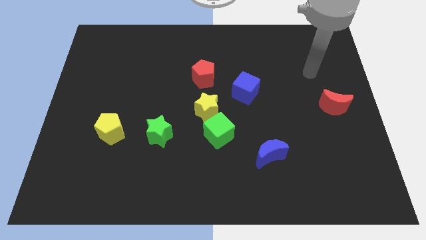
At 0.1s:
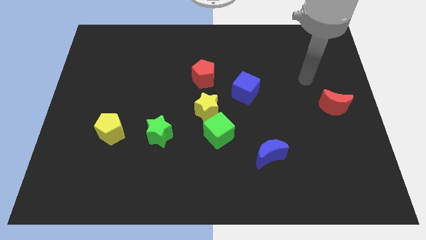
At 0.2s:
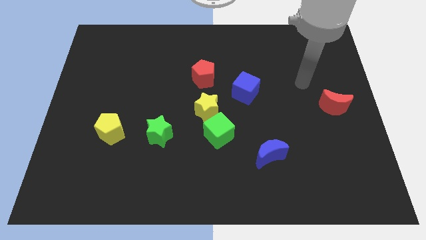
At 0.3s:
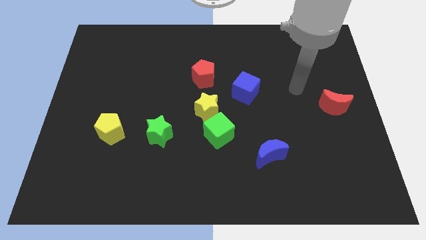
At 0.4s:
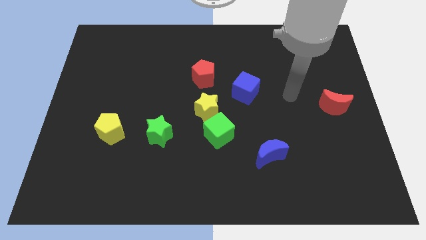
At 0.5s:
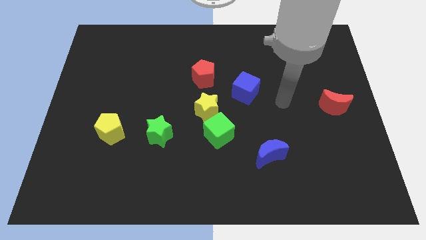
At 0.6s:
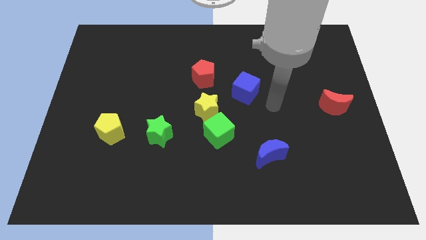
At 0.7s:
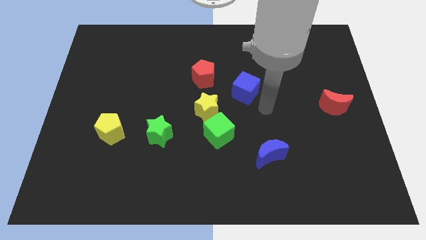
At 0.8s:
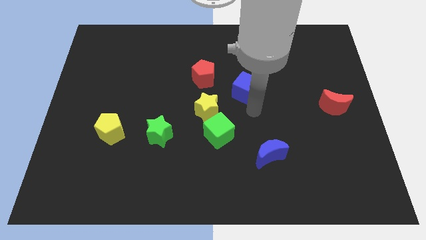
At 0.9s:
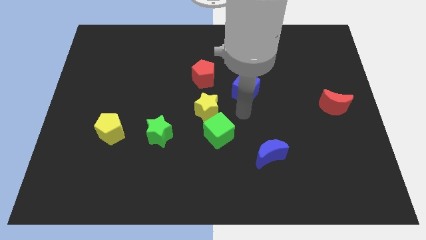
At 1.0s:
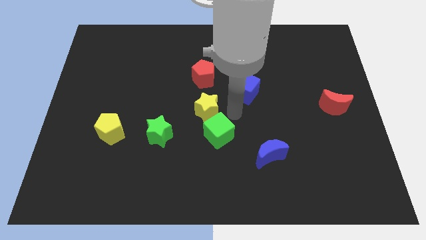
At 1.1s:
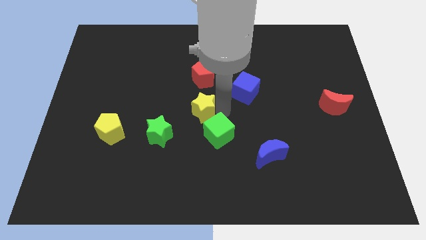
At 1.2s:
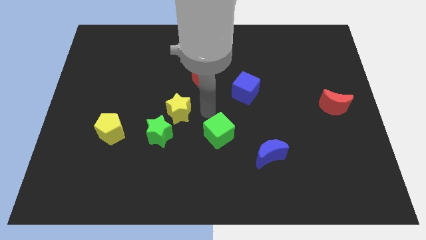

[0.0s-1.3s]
separate the green cube from the yellow star

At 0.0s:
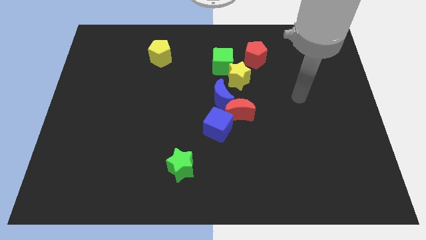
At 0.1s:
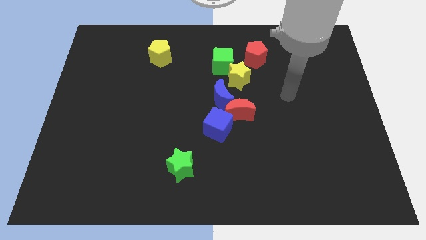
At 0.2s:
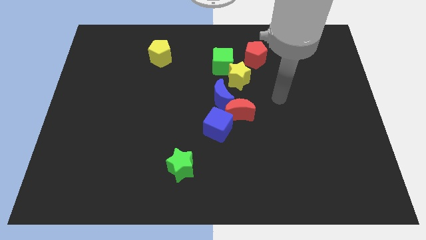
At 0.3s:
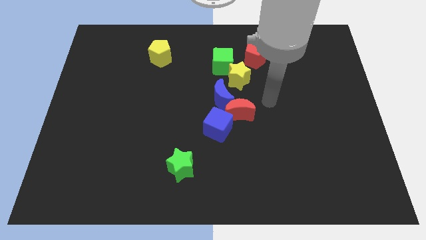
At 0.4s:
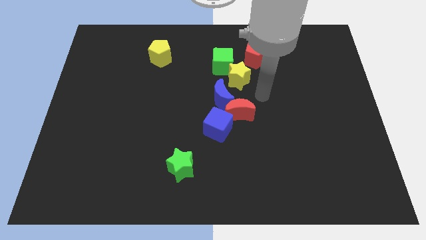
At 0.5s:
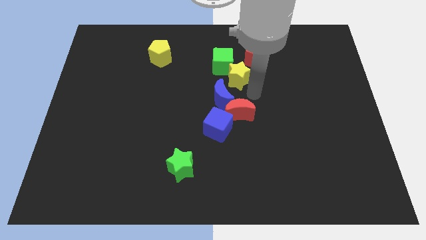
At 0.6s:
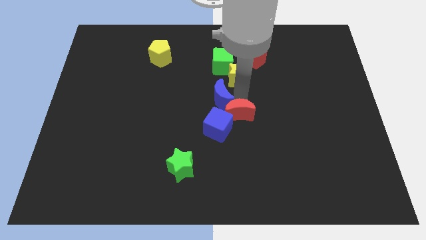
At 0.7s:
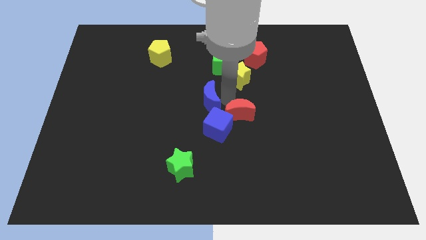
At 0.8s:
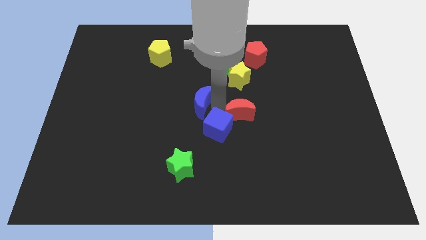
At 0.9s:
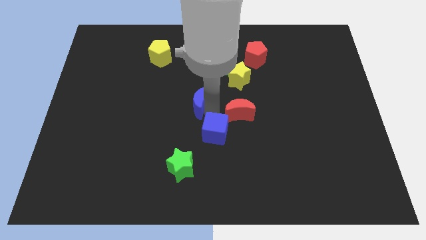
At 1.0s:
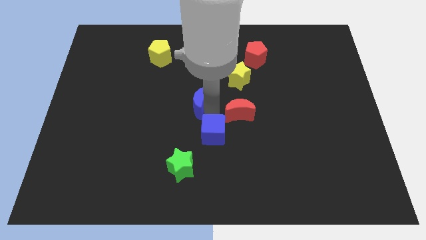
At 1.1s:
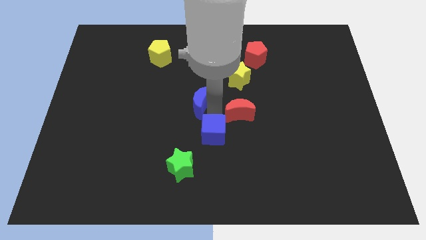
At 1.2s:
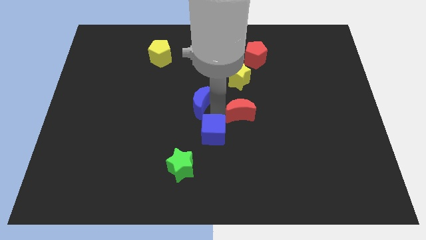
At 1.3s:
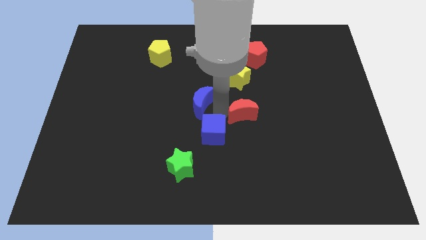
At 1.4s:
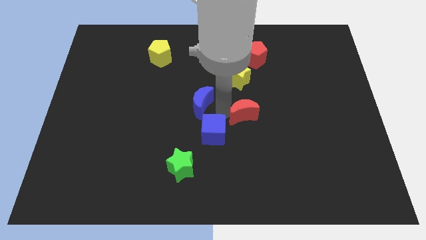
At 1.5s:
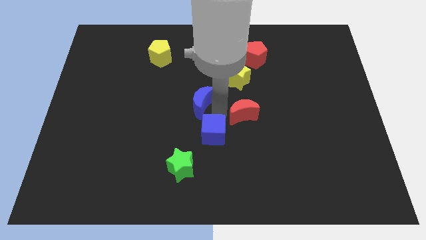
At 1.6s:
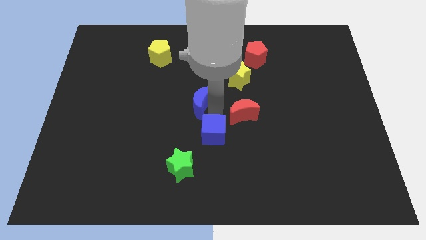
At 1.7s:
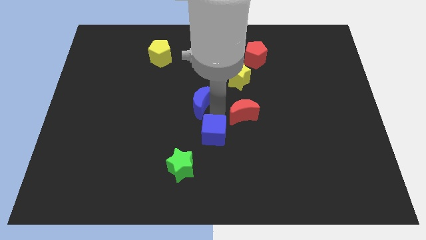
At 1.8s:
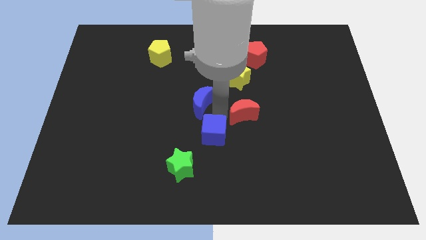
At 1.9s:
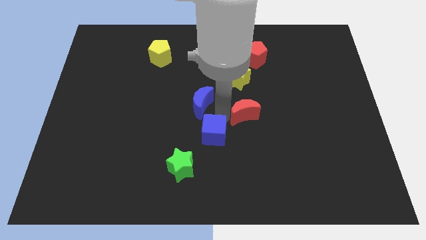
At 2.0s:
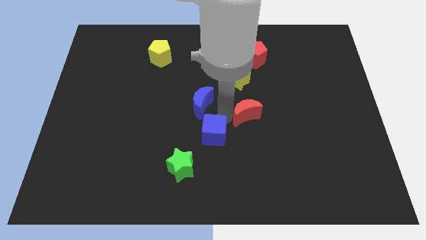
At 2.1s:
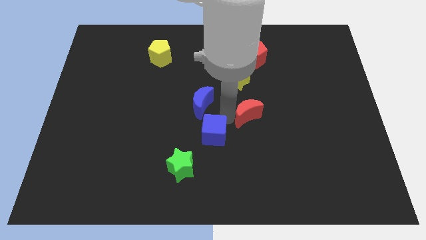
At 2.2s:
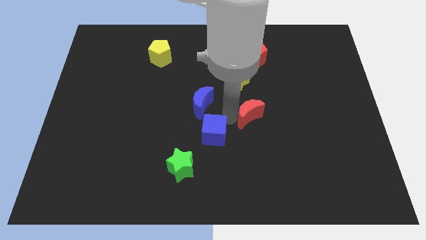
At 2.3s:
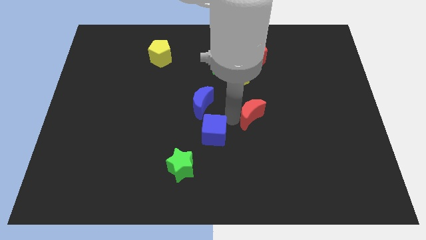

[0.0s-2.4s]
move the red moon away from the blue moon and blue cube

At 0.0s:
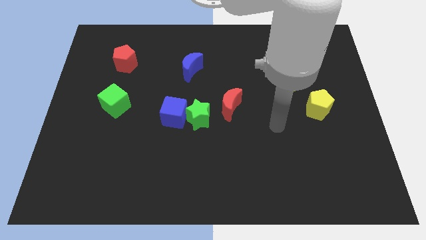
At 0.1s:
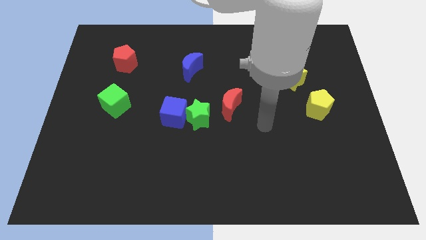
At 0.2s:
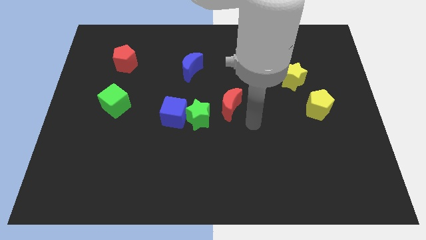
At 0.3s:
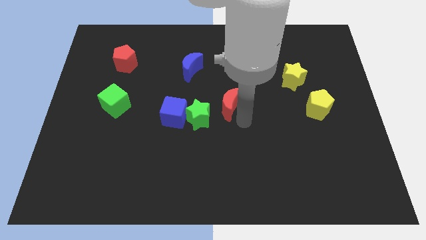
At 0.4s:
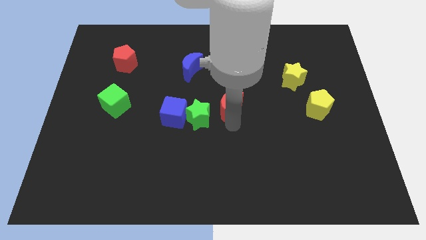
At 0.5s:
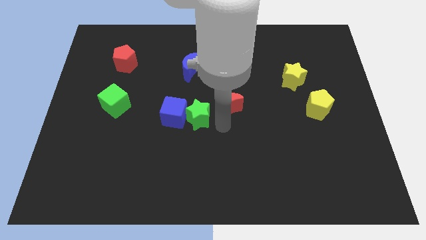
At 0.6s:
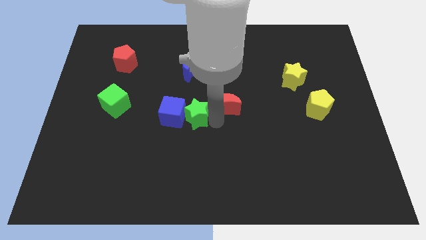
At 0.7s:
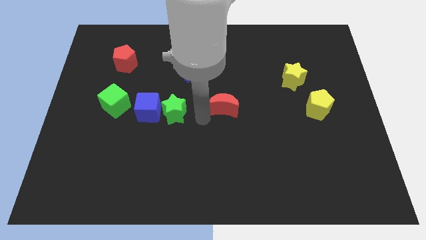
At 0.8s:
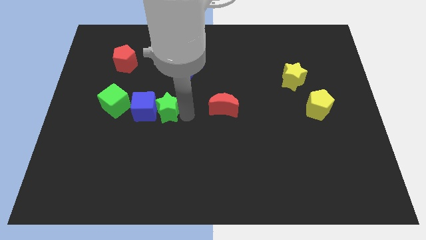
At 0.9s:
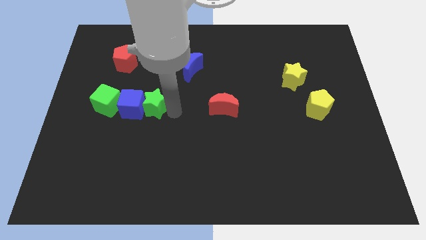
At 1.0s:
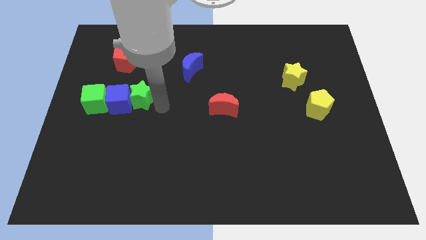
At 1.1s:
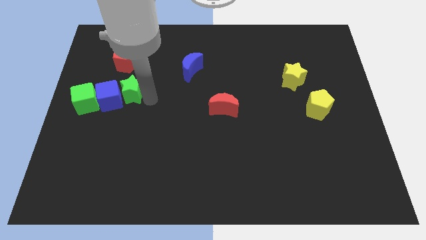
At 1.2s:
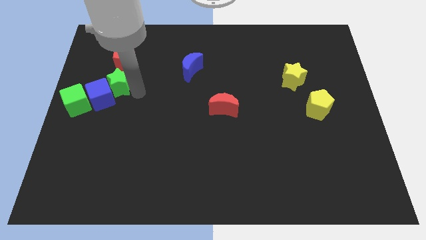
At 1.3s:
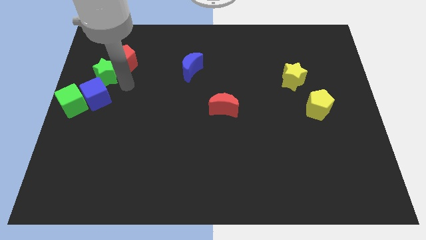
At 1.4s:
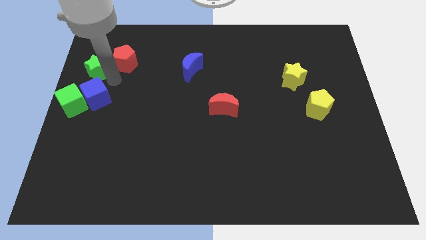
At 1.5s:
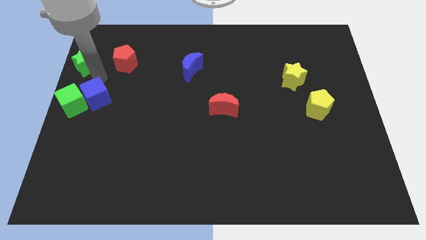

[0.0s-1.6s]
separate the blue cube from the green star

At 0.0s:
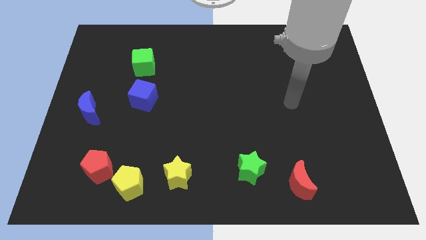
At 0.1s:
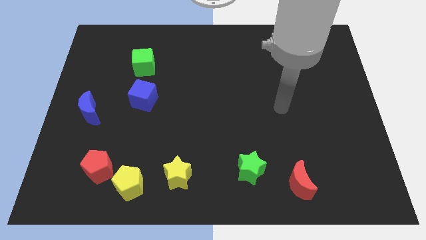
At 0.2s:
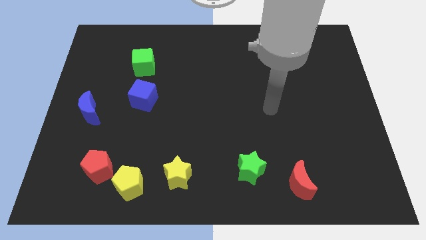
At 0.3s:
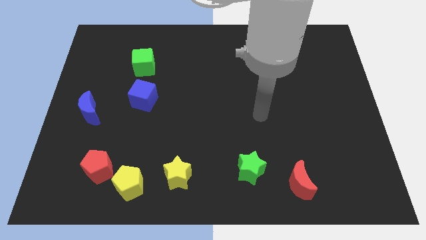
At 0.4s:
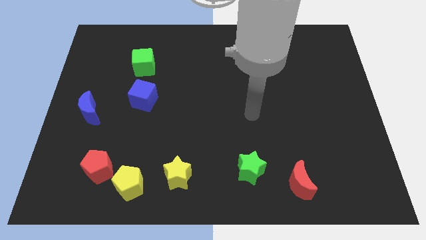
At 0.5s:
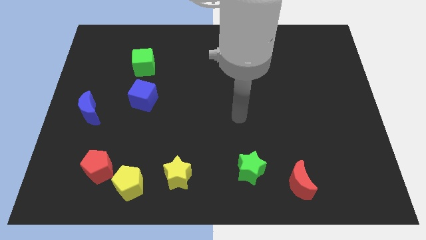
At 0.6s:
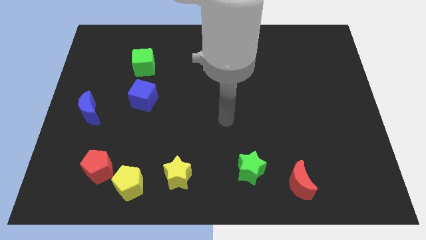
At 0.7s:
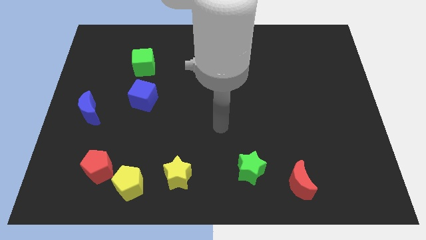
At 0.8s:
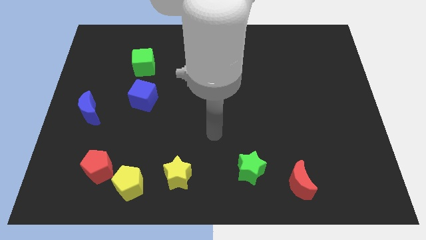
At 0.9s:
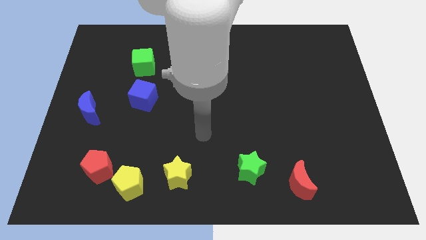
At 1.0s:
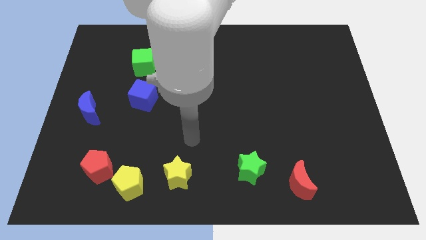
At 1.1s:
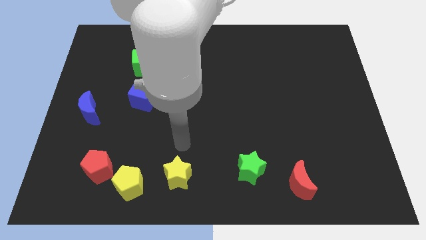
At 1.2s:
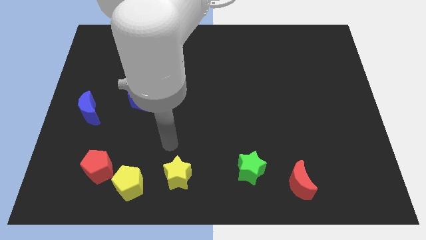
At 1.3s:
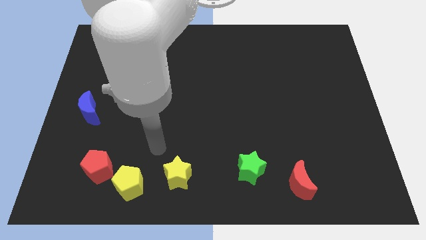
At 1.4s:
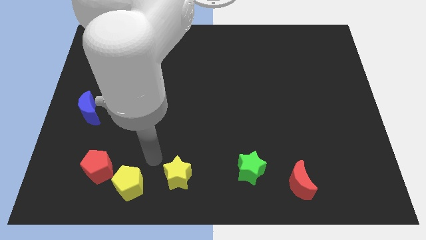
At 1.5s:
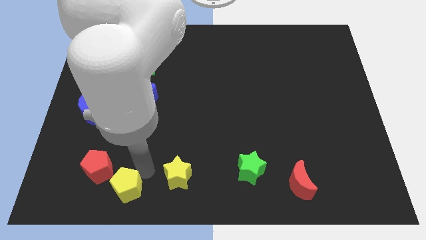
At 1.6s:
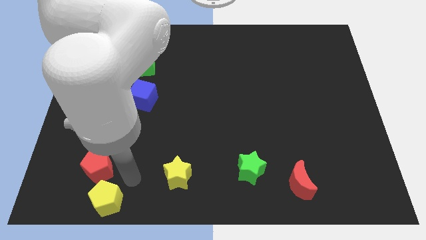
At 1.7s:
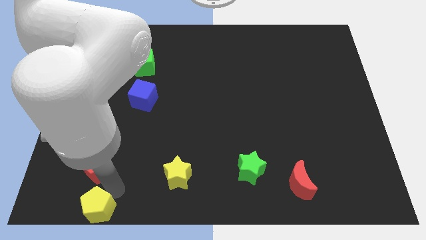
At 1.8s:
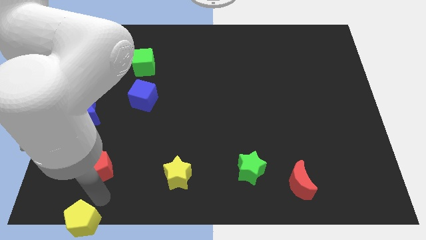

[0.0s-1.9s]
move the red pentagon away from the yellow pentagon

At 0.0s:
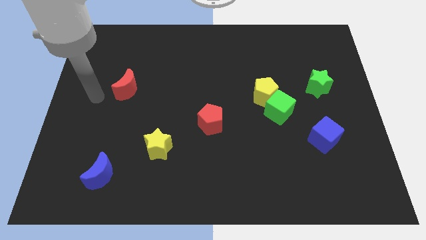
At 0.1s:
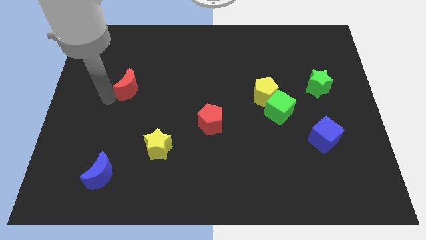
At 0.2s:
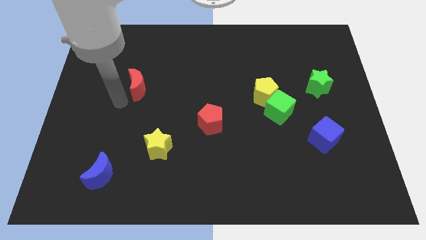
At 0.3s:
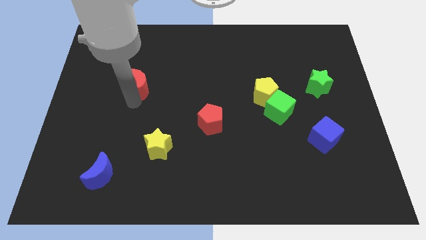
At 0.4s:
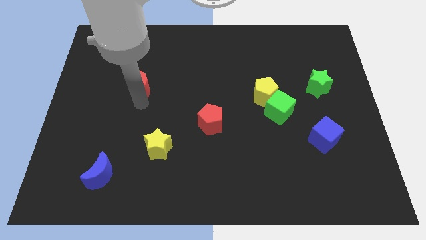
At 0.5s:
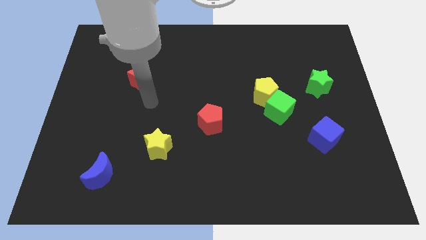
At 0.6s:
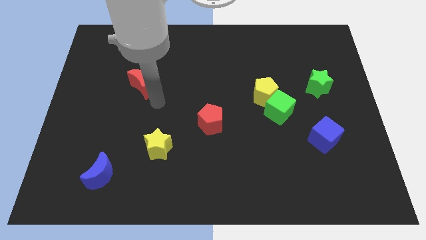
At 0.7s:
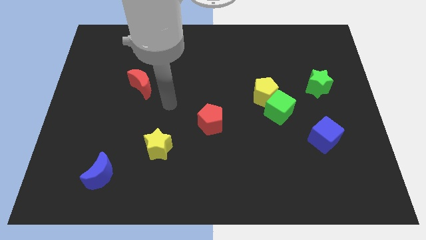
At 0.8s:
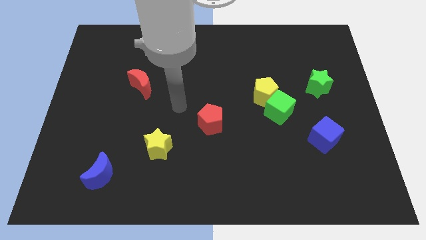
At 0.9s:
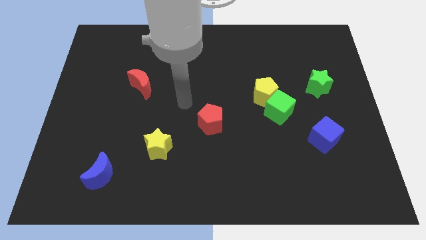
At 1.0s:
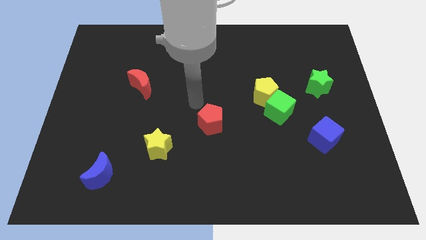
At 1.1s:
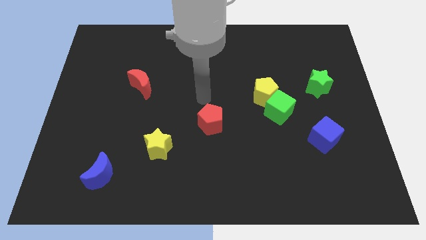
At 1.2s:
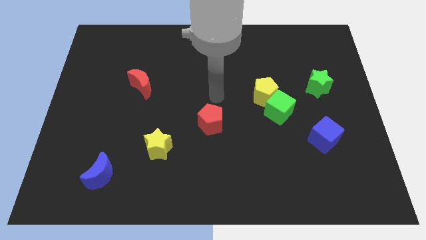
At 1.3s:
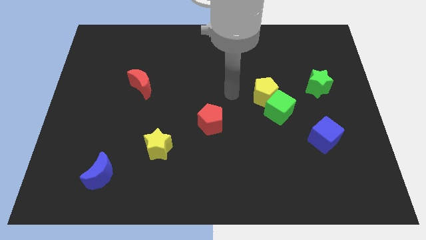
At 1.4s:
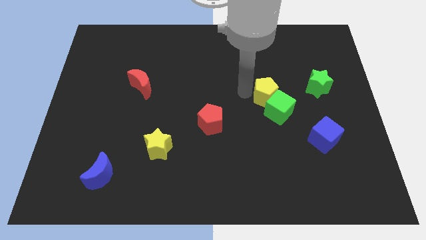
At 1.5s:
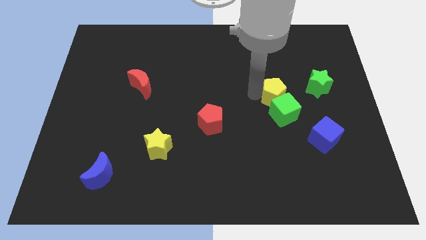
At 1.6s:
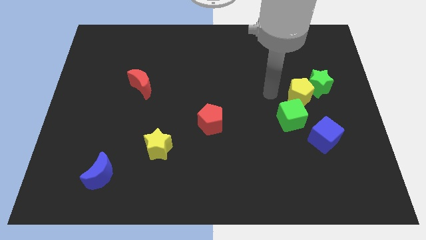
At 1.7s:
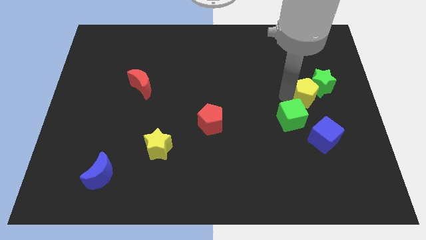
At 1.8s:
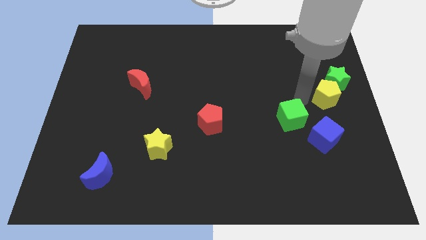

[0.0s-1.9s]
pull the green cube apart from the yellow pentagon

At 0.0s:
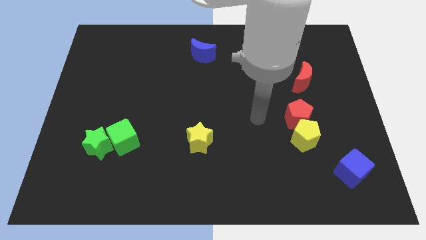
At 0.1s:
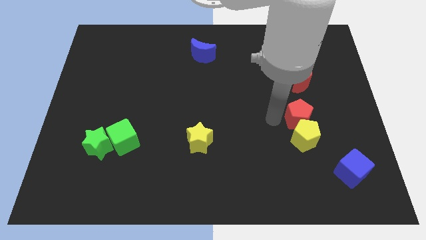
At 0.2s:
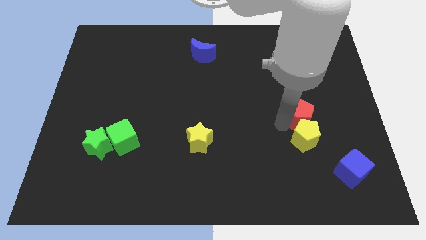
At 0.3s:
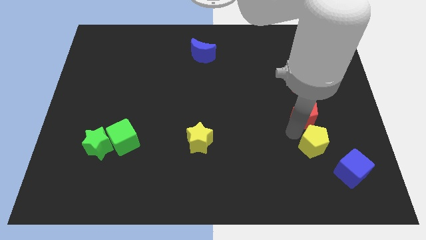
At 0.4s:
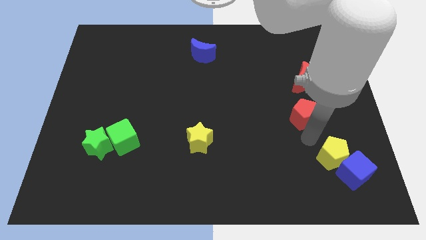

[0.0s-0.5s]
separate the red pentagon from the yellow pentagon
